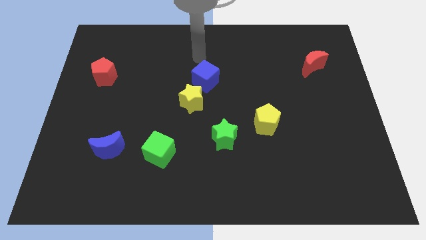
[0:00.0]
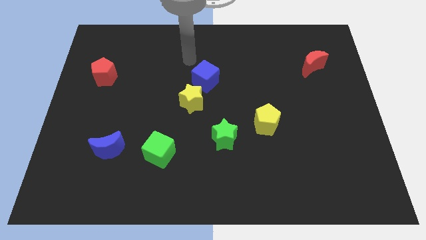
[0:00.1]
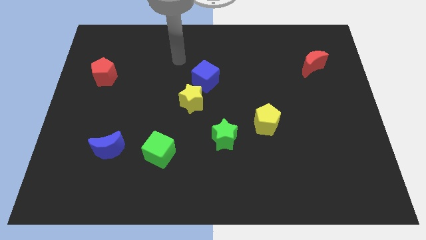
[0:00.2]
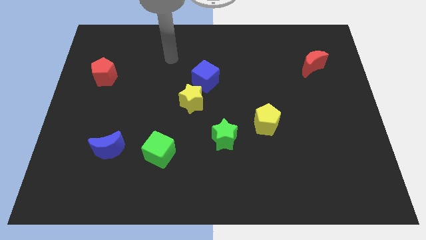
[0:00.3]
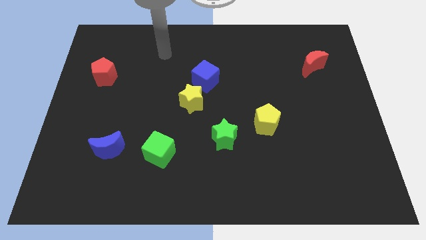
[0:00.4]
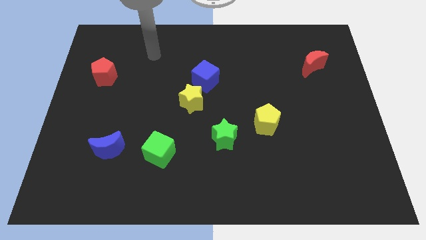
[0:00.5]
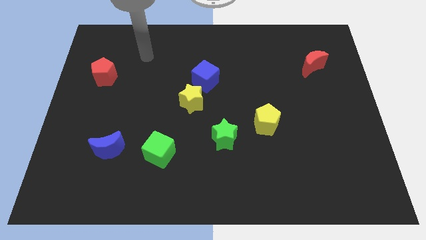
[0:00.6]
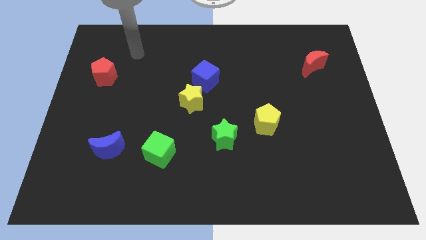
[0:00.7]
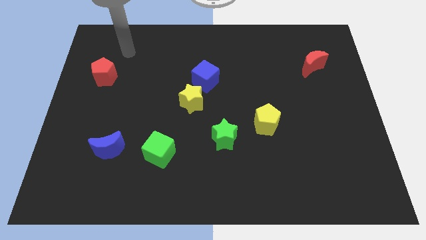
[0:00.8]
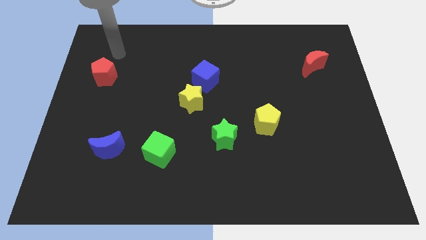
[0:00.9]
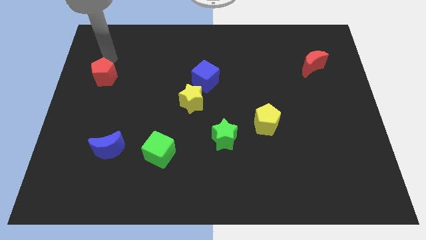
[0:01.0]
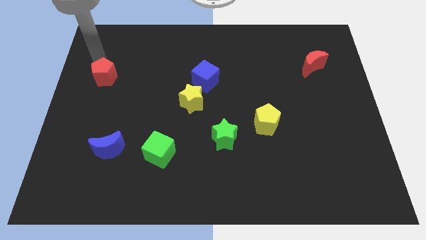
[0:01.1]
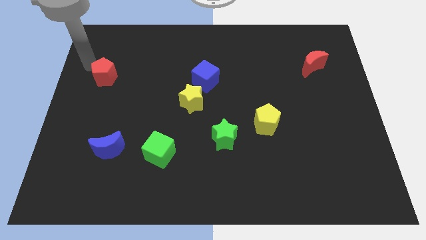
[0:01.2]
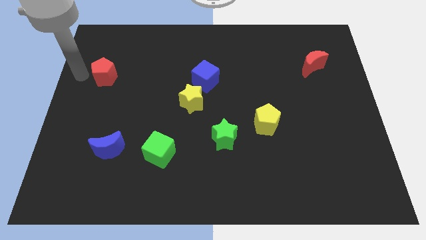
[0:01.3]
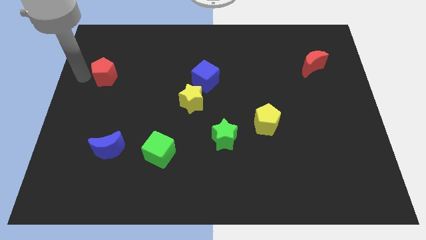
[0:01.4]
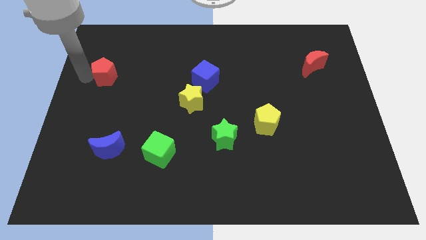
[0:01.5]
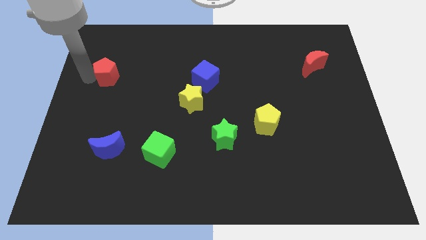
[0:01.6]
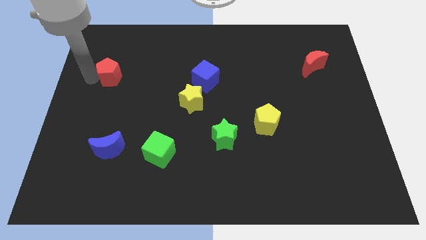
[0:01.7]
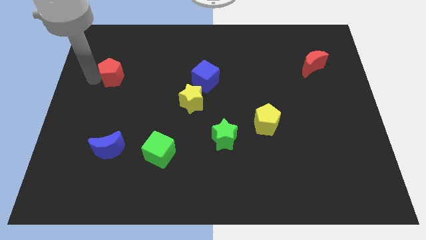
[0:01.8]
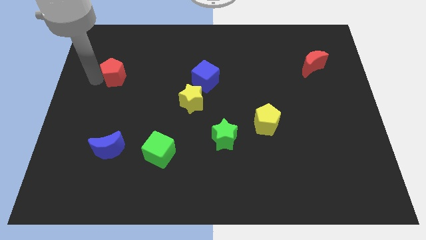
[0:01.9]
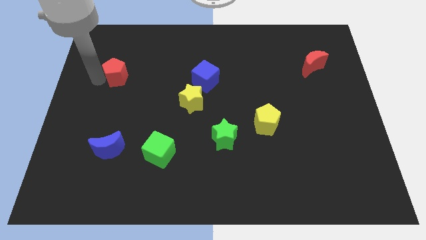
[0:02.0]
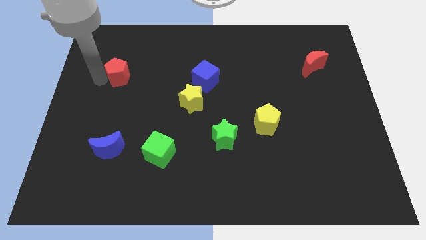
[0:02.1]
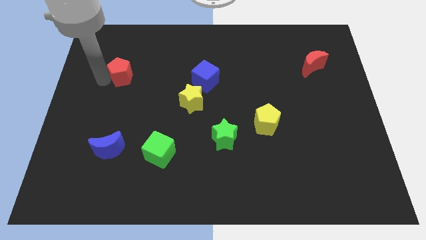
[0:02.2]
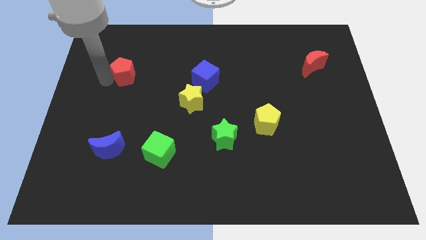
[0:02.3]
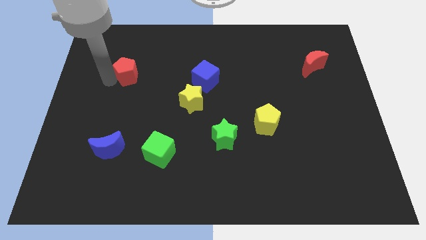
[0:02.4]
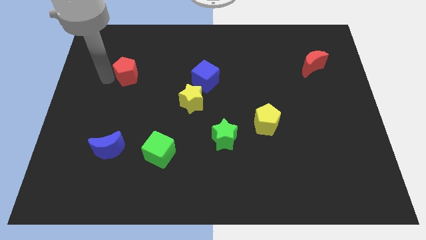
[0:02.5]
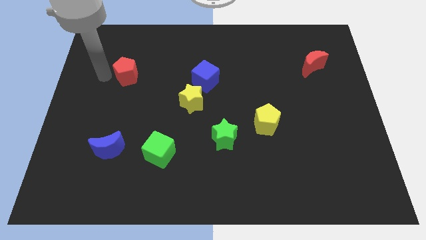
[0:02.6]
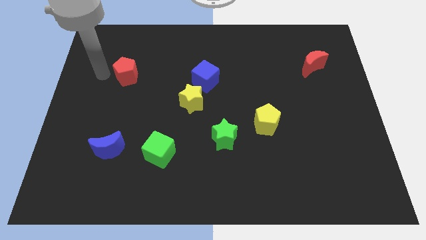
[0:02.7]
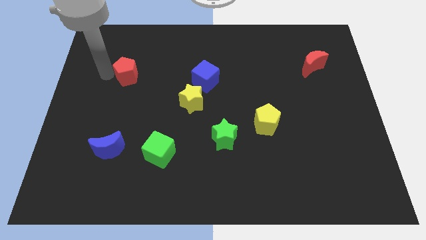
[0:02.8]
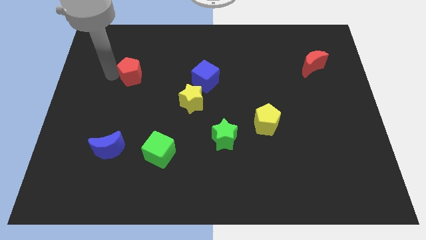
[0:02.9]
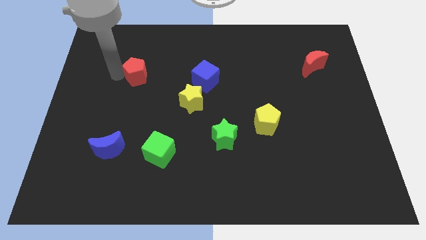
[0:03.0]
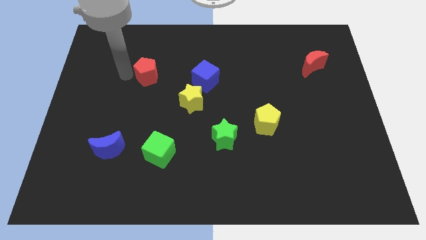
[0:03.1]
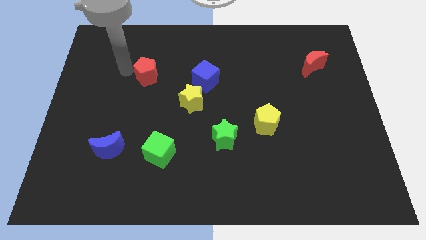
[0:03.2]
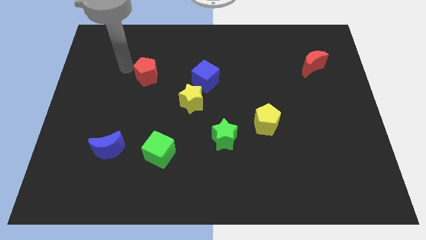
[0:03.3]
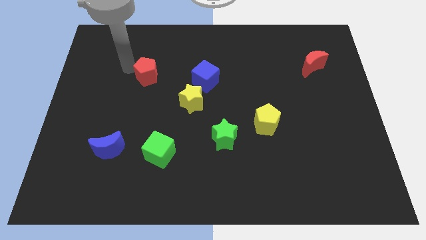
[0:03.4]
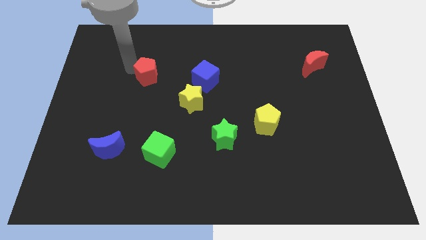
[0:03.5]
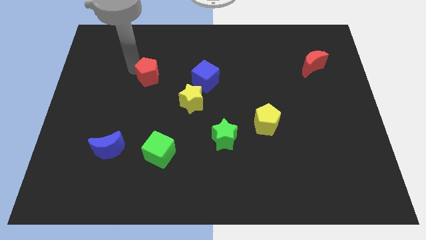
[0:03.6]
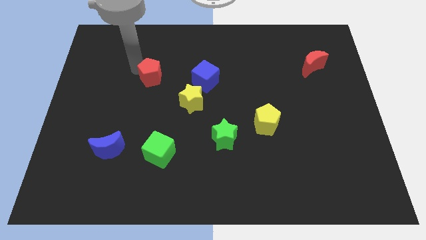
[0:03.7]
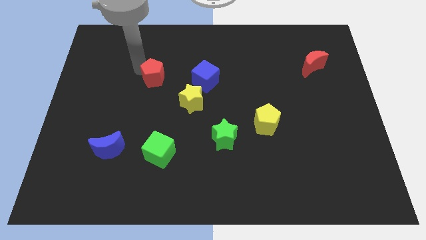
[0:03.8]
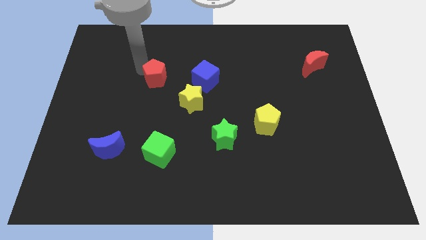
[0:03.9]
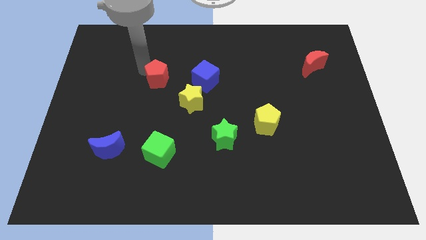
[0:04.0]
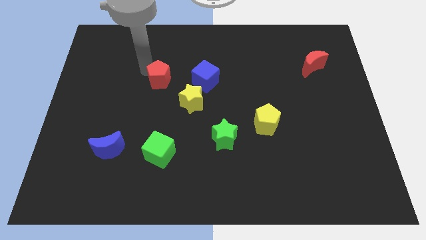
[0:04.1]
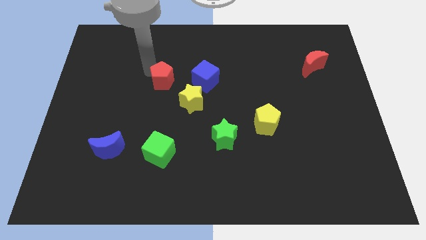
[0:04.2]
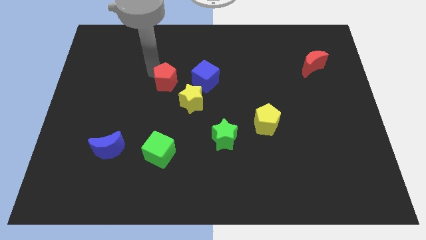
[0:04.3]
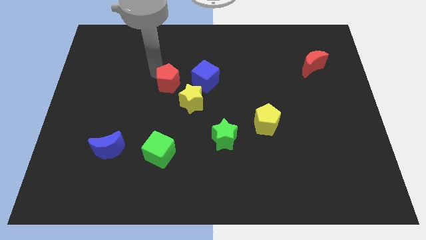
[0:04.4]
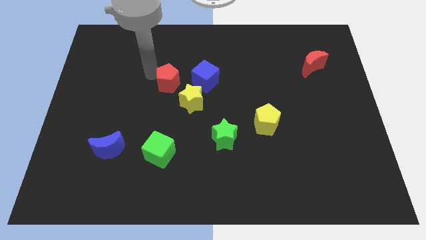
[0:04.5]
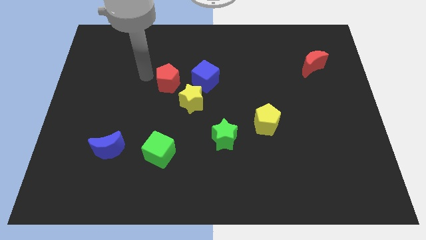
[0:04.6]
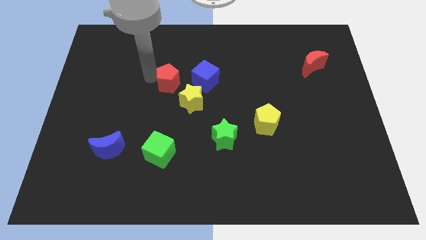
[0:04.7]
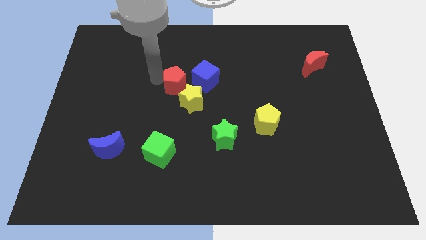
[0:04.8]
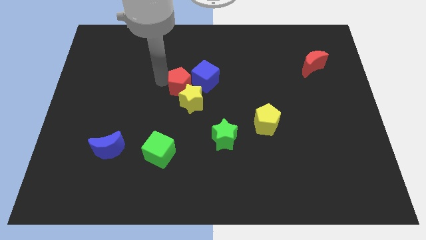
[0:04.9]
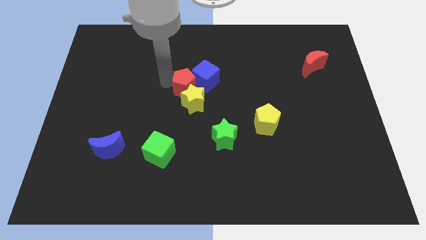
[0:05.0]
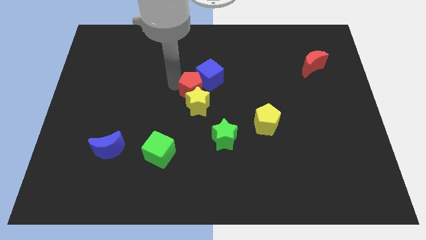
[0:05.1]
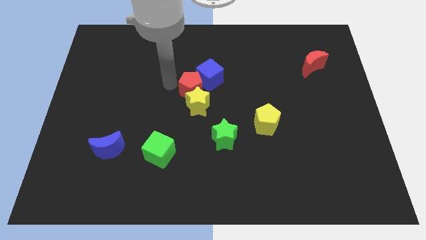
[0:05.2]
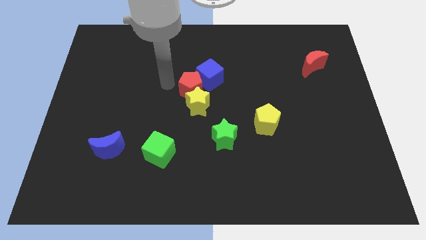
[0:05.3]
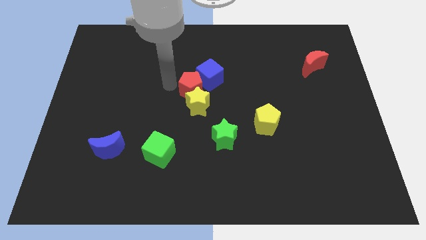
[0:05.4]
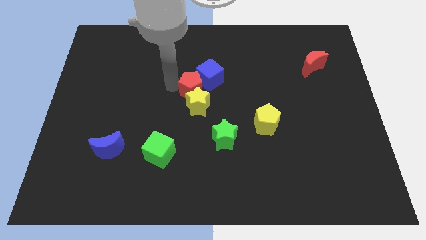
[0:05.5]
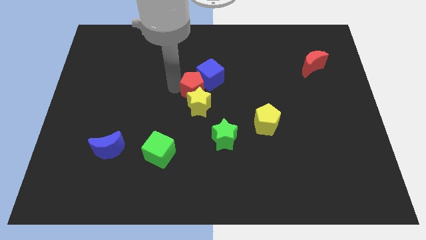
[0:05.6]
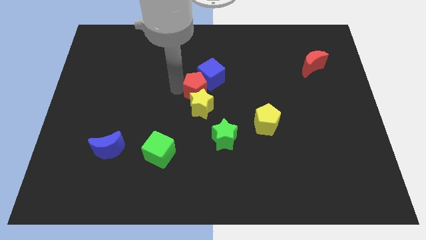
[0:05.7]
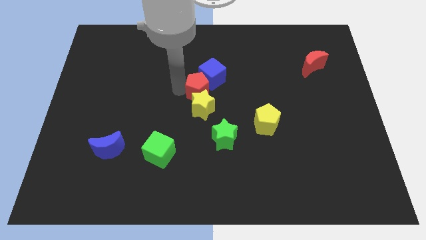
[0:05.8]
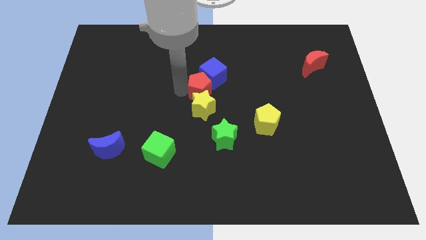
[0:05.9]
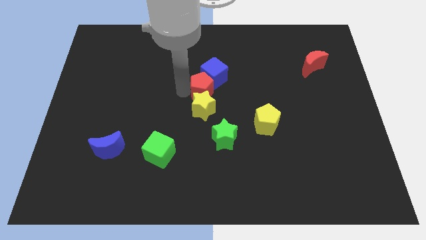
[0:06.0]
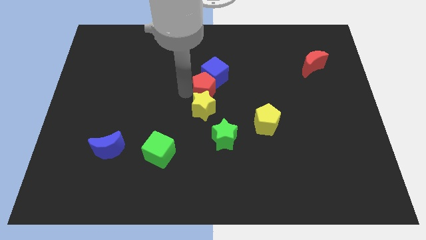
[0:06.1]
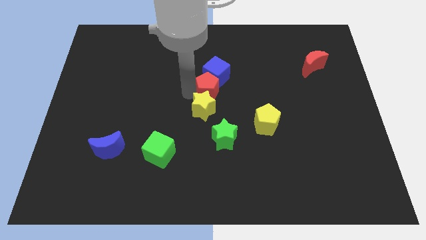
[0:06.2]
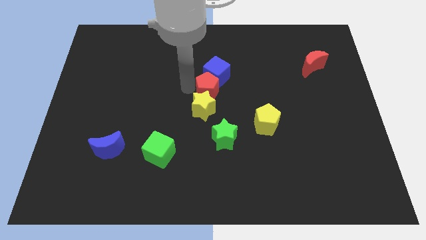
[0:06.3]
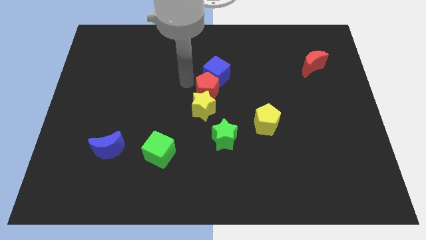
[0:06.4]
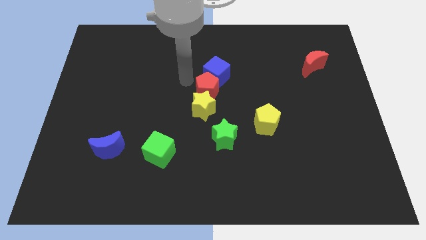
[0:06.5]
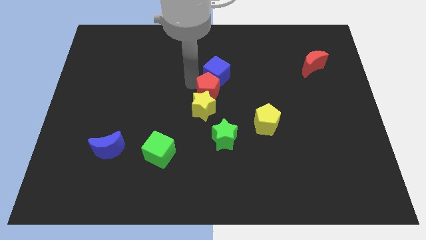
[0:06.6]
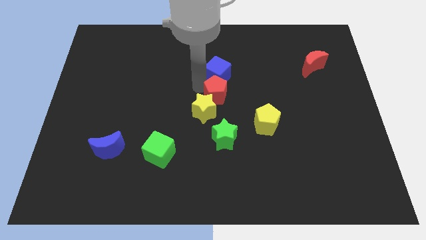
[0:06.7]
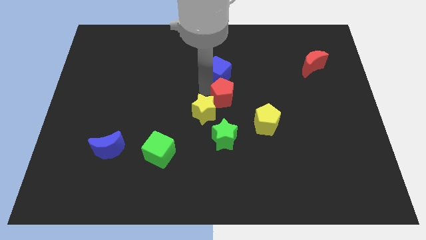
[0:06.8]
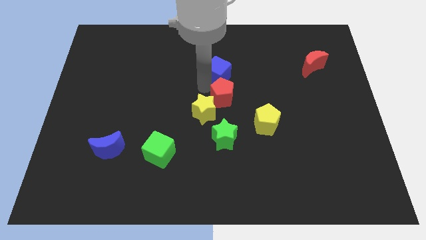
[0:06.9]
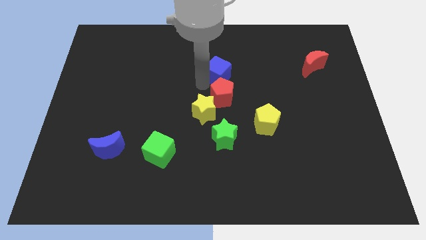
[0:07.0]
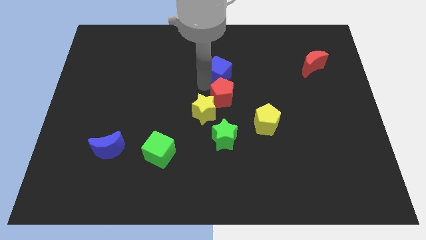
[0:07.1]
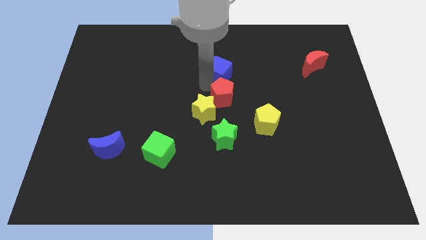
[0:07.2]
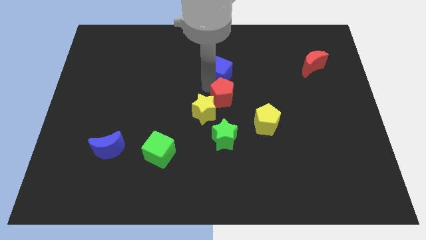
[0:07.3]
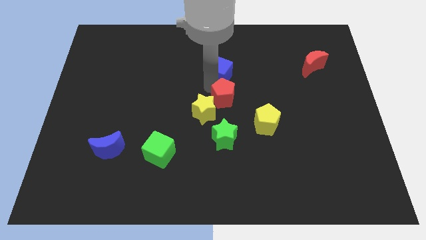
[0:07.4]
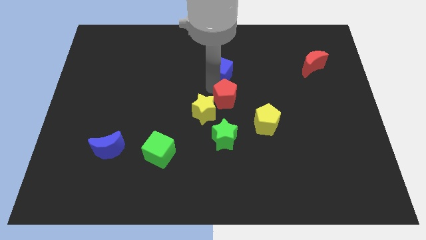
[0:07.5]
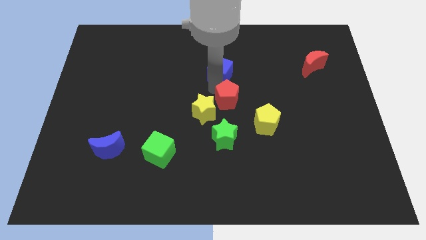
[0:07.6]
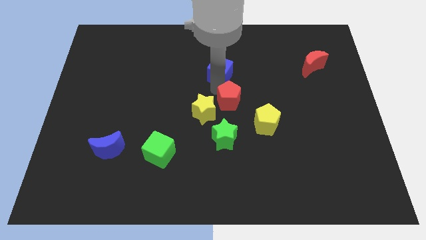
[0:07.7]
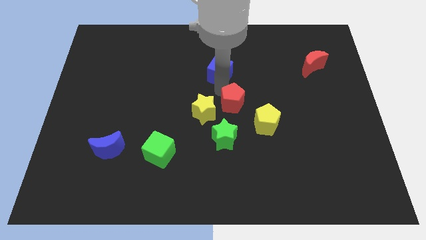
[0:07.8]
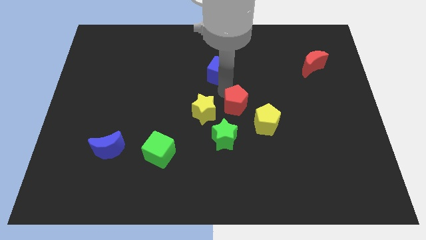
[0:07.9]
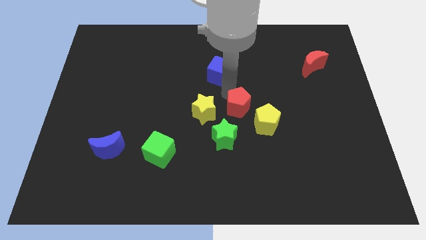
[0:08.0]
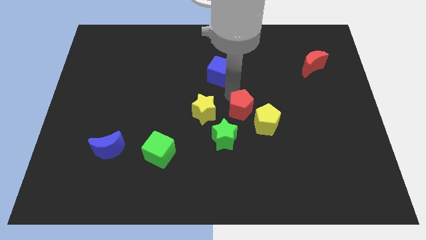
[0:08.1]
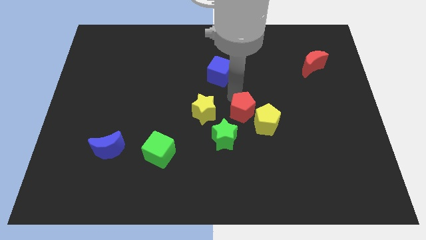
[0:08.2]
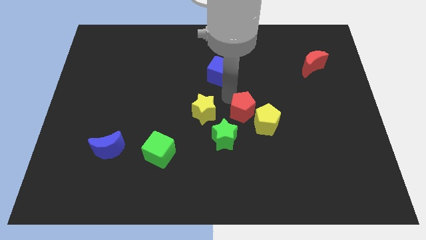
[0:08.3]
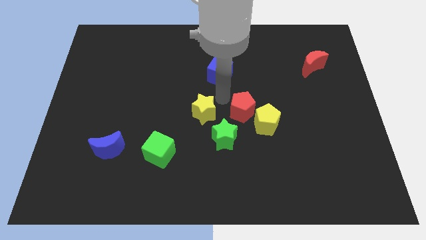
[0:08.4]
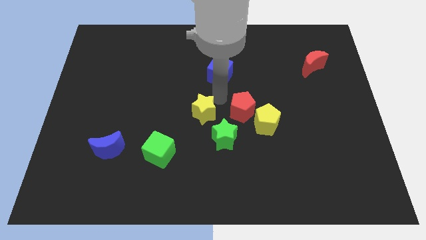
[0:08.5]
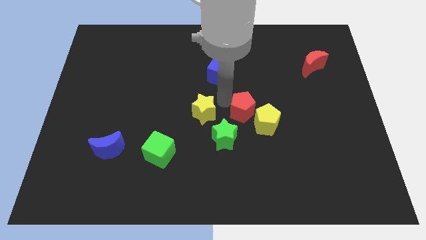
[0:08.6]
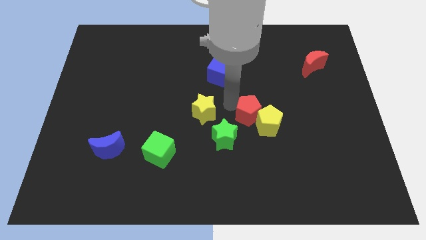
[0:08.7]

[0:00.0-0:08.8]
slide the red pentagon close to the yellow pentagon
